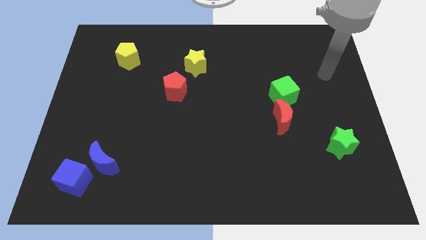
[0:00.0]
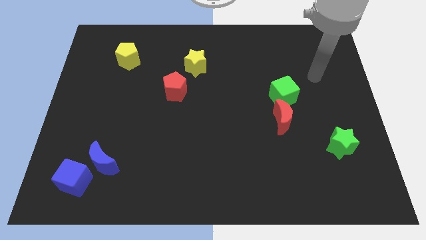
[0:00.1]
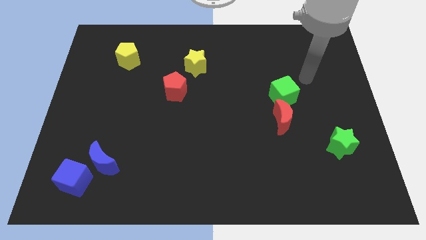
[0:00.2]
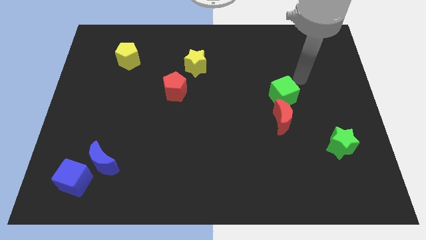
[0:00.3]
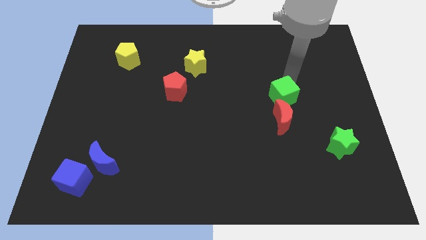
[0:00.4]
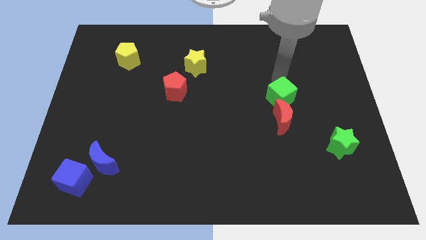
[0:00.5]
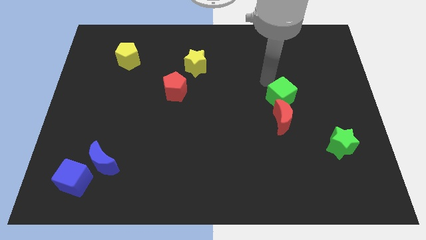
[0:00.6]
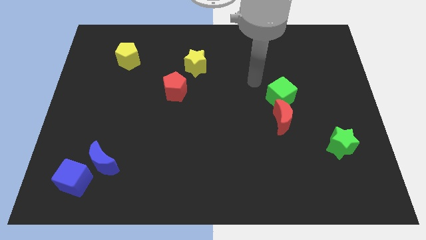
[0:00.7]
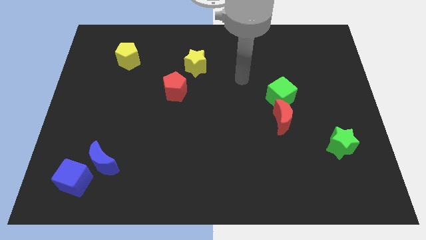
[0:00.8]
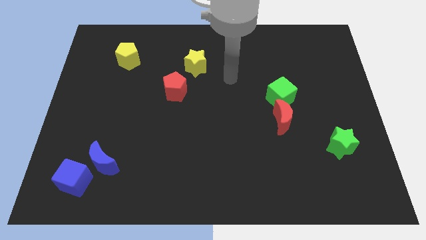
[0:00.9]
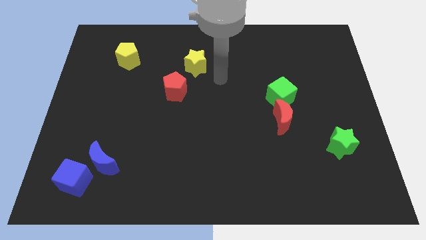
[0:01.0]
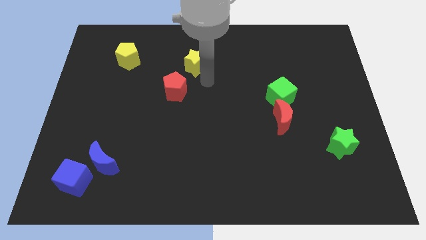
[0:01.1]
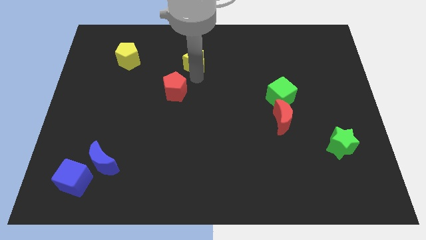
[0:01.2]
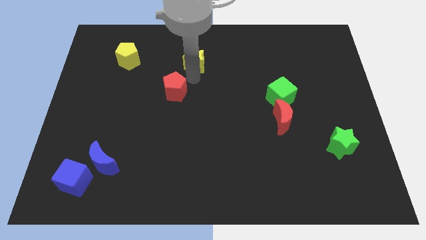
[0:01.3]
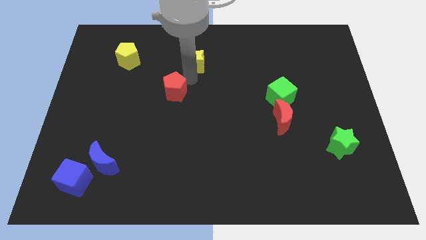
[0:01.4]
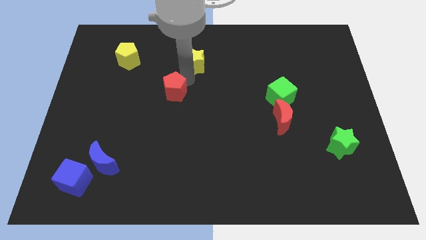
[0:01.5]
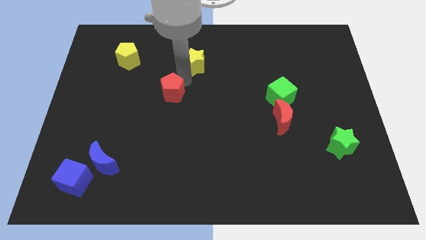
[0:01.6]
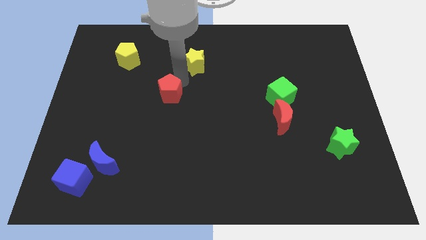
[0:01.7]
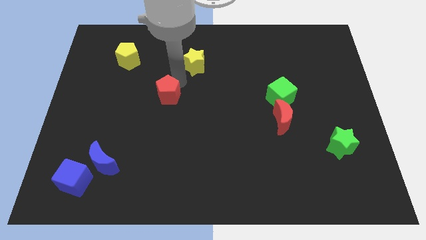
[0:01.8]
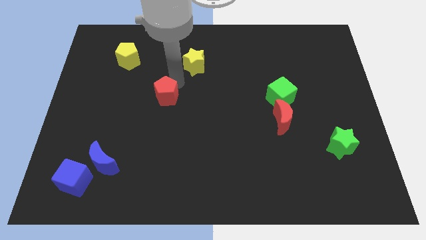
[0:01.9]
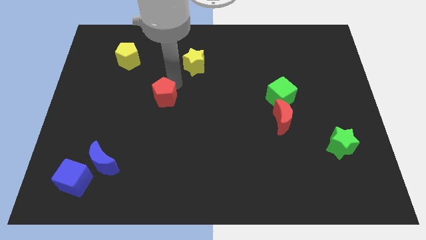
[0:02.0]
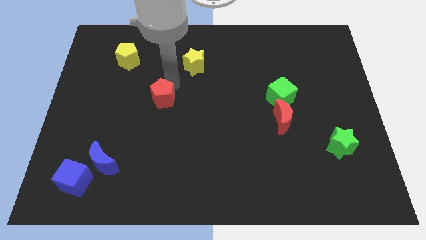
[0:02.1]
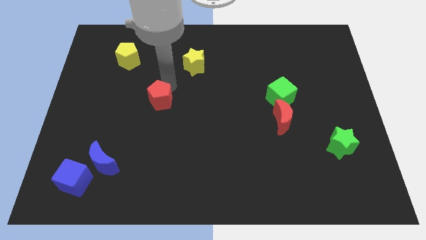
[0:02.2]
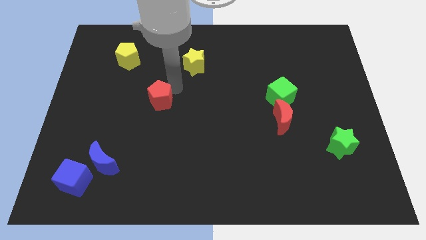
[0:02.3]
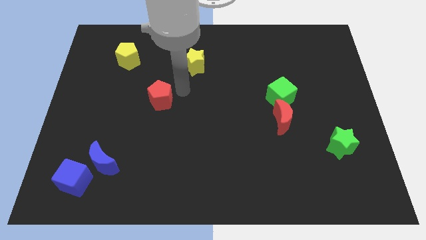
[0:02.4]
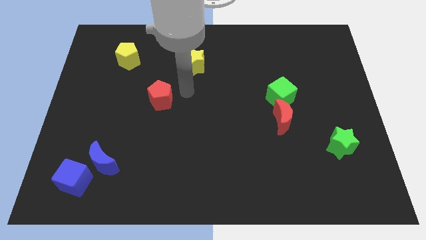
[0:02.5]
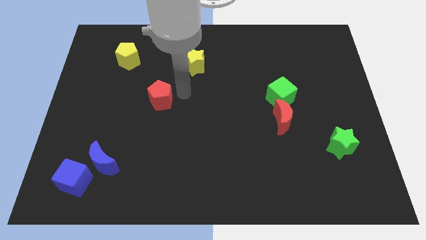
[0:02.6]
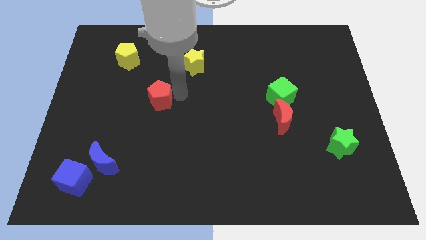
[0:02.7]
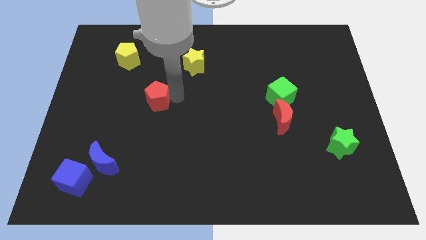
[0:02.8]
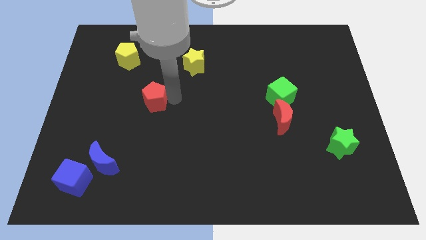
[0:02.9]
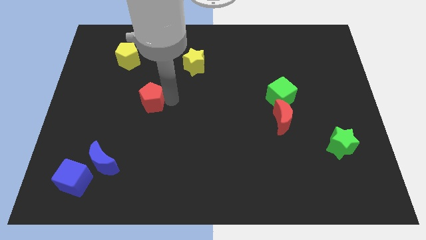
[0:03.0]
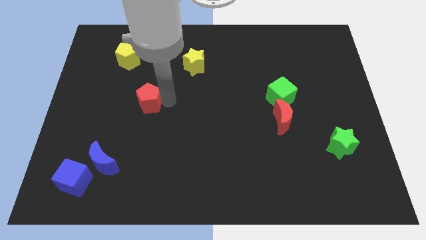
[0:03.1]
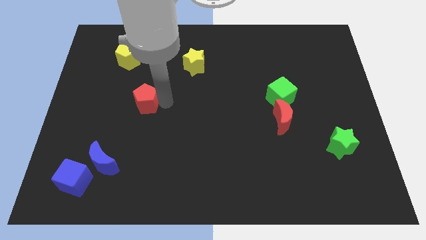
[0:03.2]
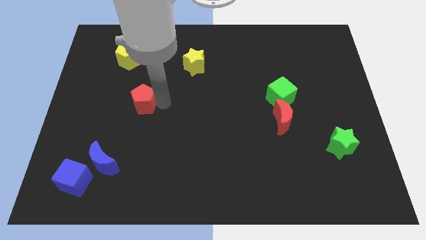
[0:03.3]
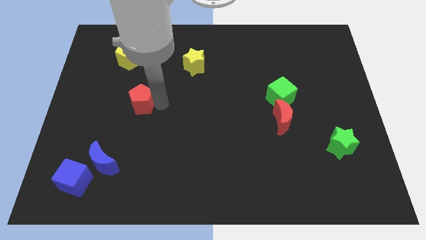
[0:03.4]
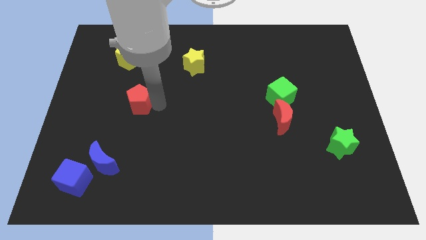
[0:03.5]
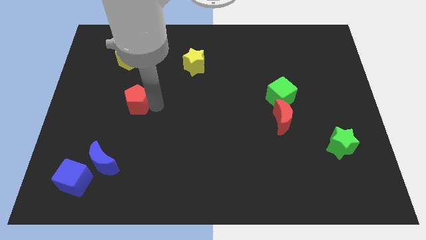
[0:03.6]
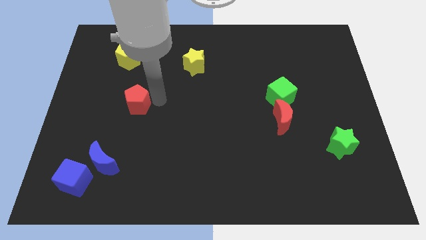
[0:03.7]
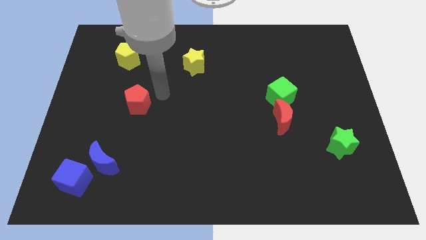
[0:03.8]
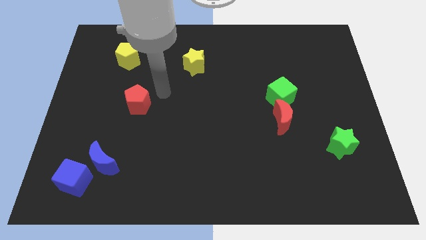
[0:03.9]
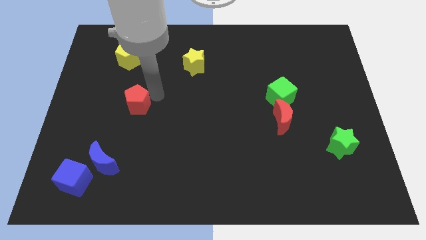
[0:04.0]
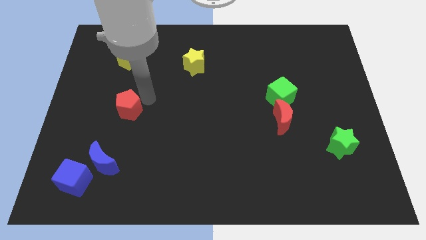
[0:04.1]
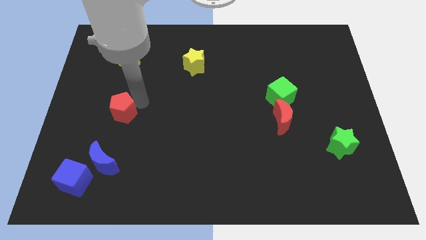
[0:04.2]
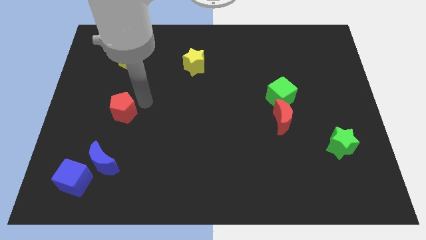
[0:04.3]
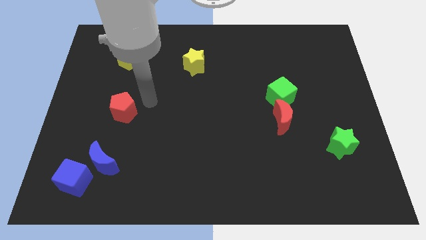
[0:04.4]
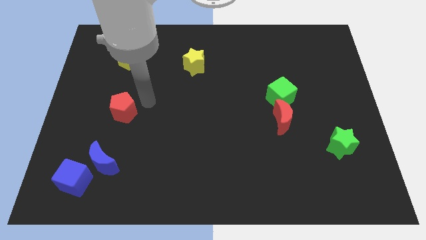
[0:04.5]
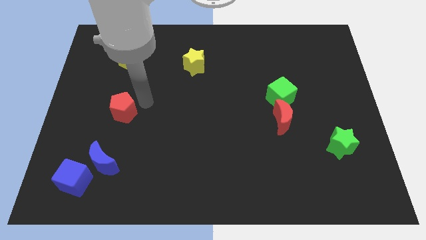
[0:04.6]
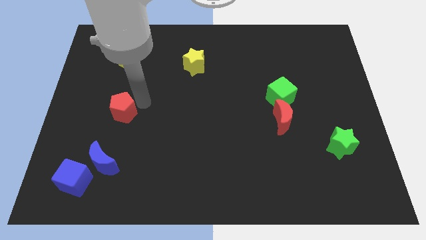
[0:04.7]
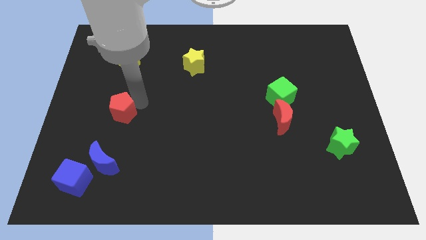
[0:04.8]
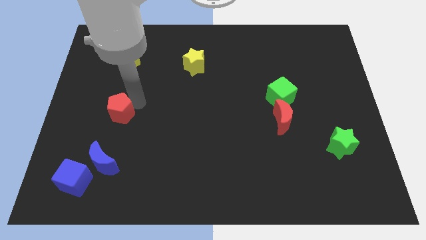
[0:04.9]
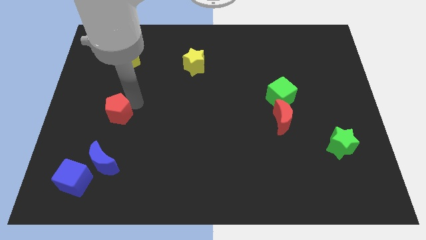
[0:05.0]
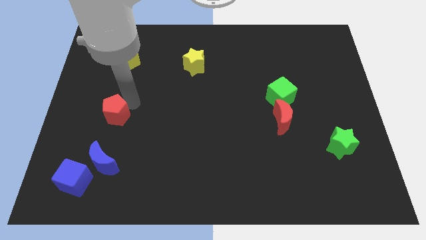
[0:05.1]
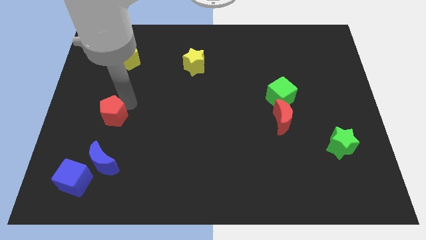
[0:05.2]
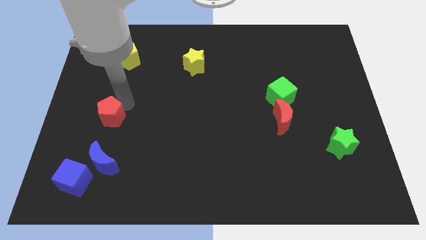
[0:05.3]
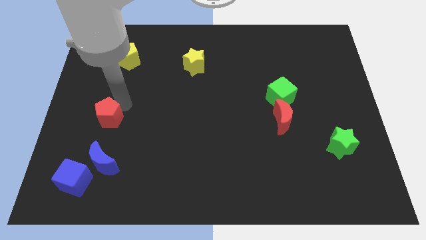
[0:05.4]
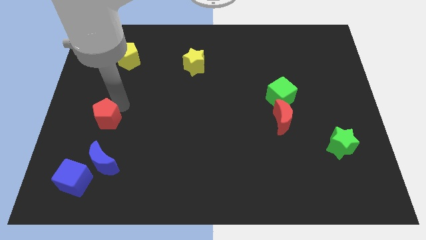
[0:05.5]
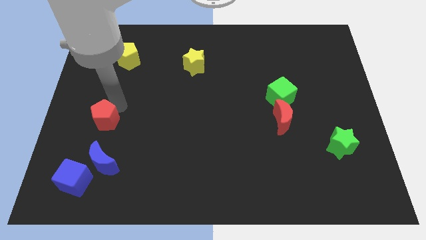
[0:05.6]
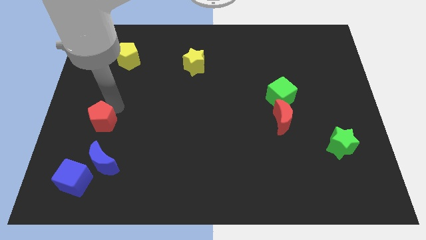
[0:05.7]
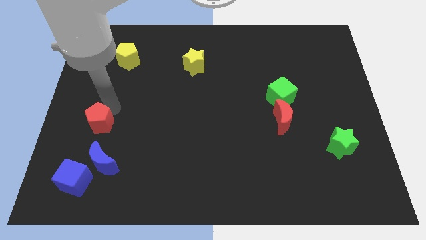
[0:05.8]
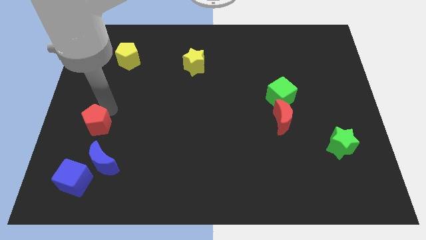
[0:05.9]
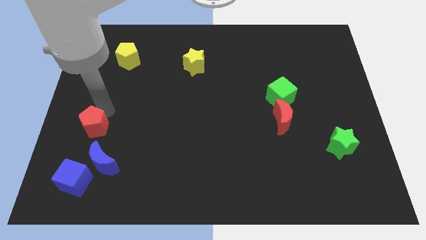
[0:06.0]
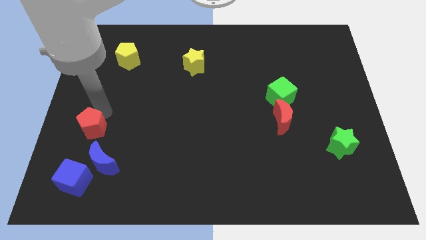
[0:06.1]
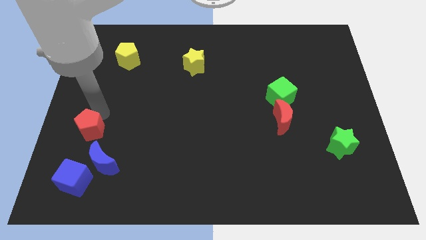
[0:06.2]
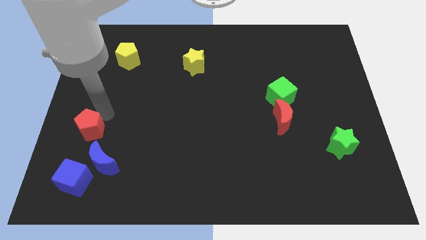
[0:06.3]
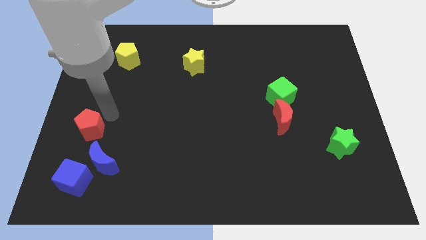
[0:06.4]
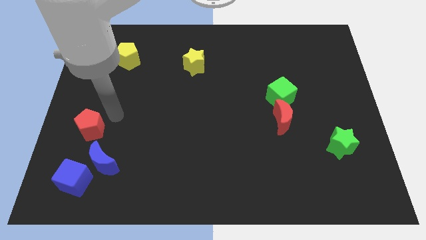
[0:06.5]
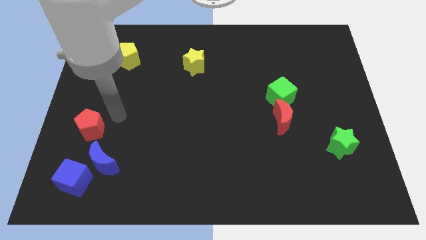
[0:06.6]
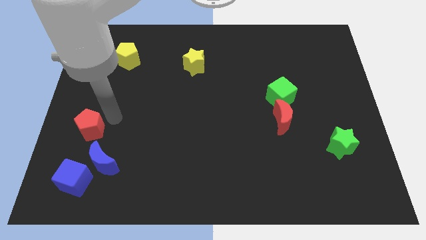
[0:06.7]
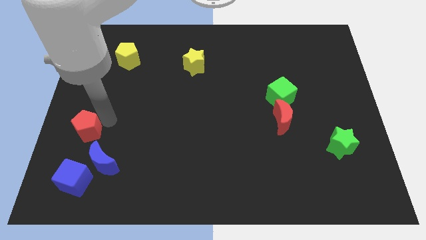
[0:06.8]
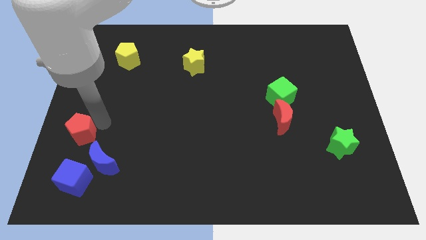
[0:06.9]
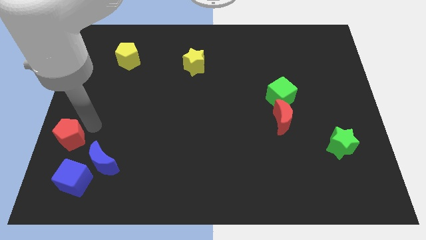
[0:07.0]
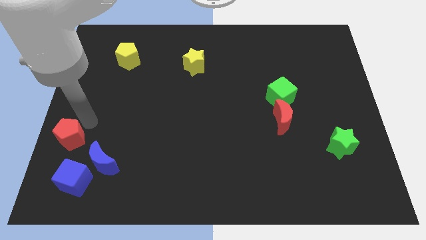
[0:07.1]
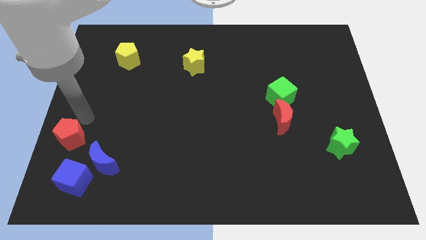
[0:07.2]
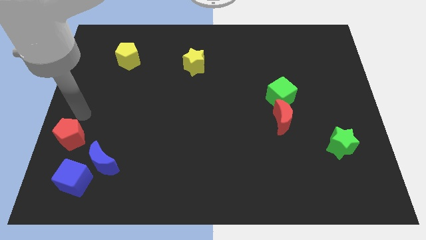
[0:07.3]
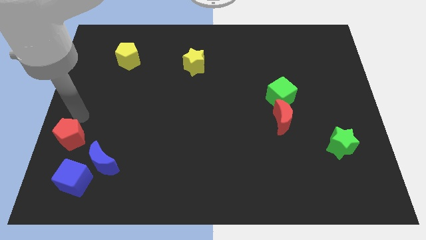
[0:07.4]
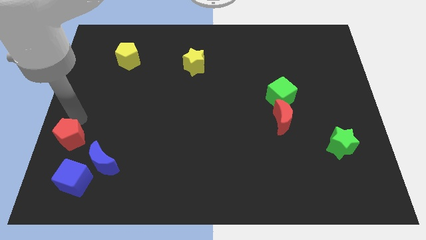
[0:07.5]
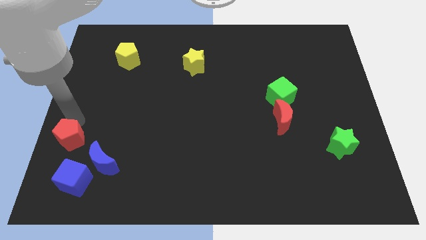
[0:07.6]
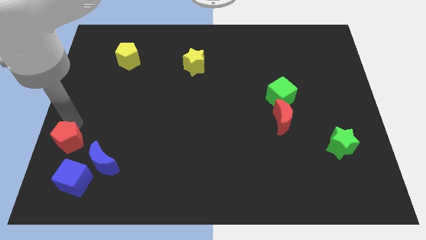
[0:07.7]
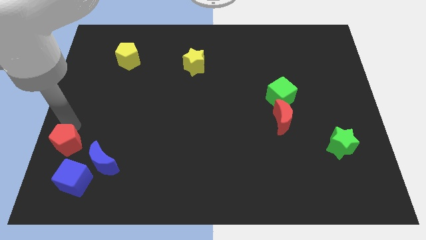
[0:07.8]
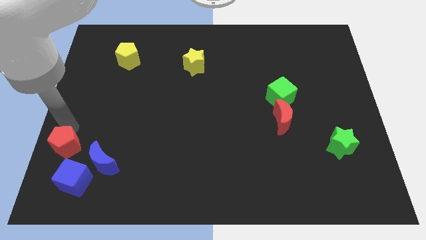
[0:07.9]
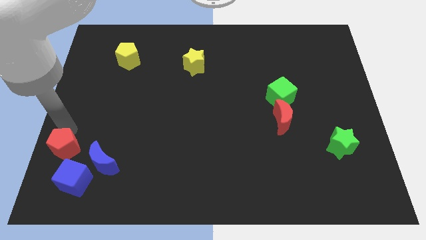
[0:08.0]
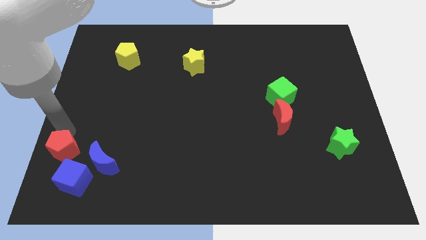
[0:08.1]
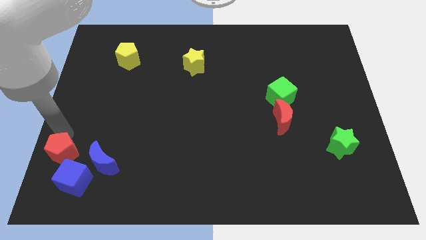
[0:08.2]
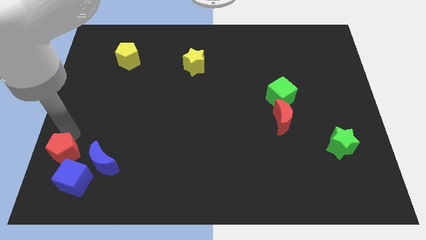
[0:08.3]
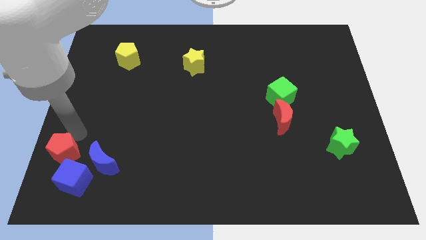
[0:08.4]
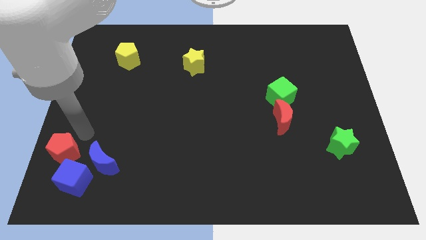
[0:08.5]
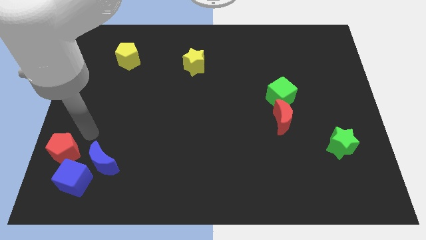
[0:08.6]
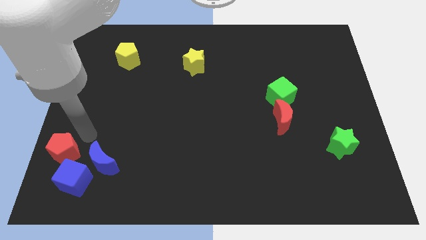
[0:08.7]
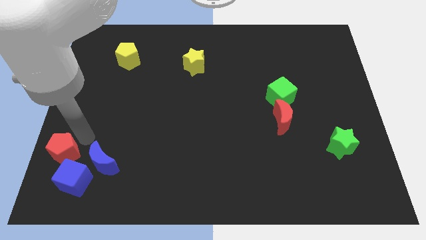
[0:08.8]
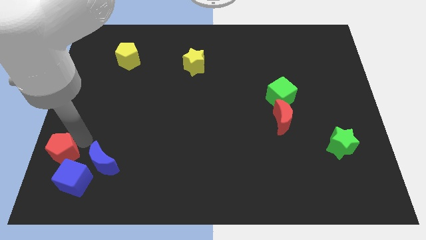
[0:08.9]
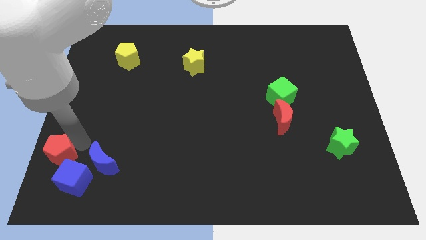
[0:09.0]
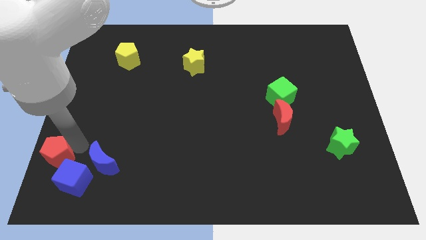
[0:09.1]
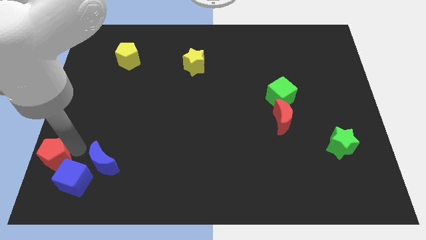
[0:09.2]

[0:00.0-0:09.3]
push the red pentagon to the bottom left
